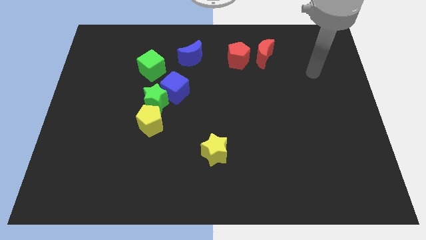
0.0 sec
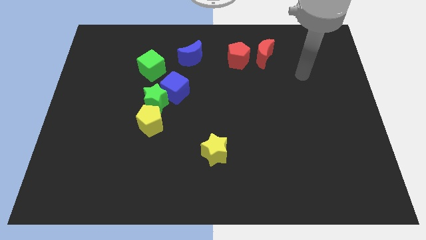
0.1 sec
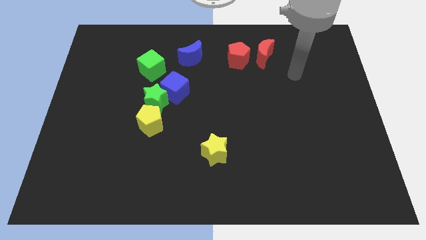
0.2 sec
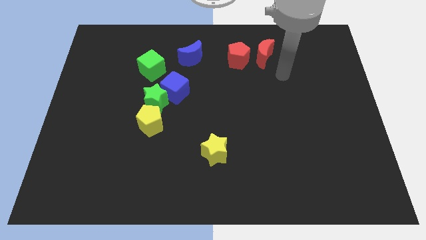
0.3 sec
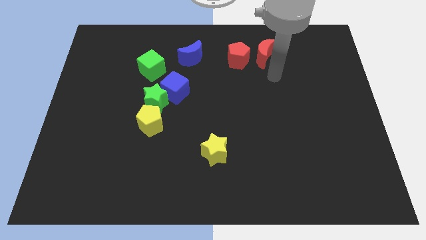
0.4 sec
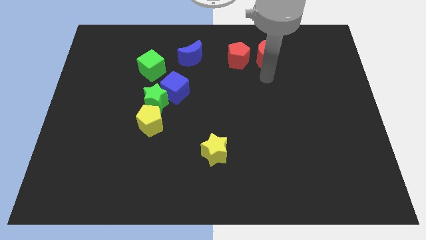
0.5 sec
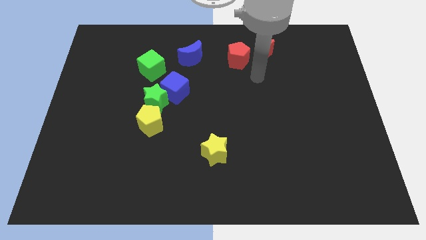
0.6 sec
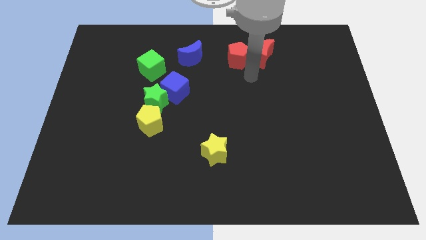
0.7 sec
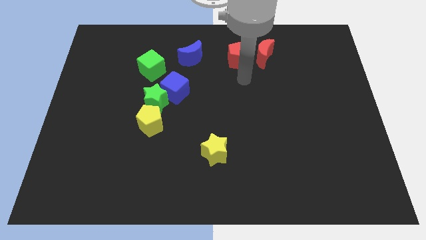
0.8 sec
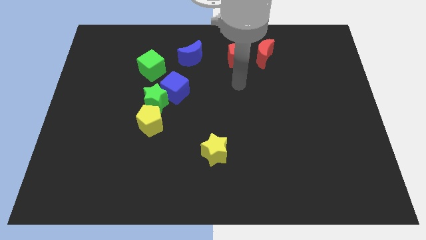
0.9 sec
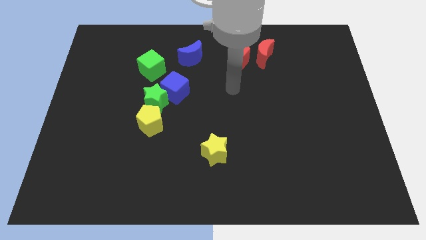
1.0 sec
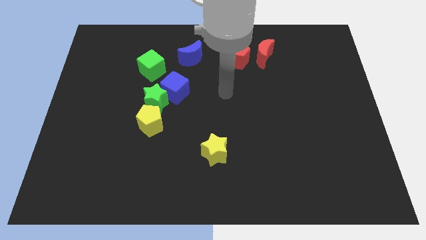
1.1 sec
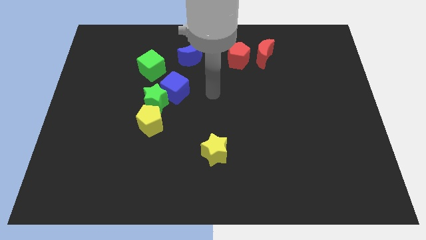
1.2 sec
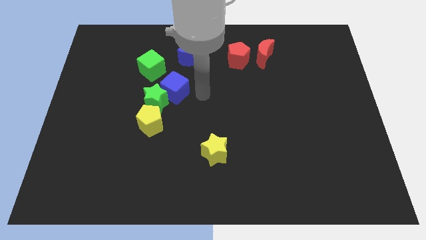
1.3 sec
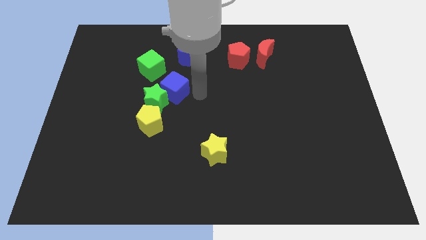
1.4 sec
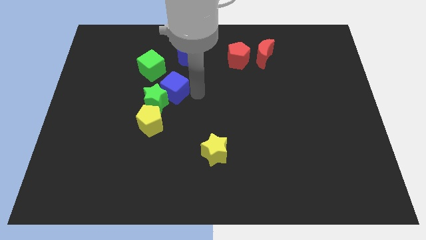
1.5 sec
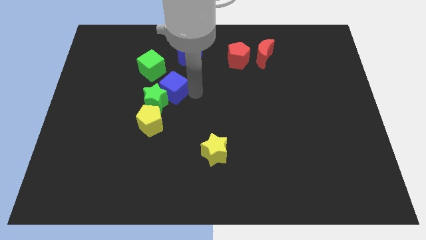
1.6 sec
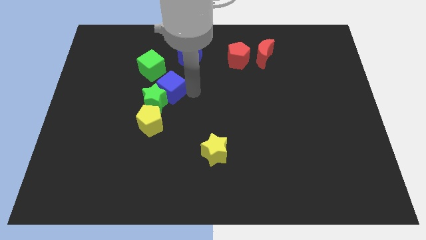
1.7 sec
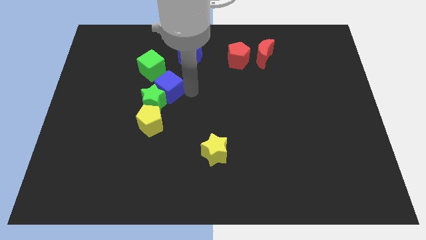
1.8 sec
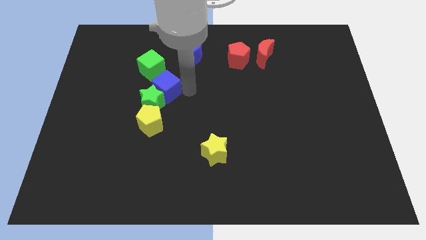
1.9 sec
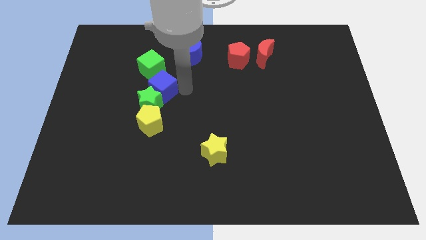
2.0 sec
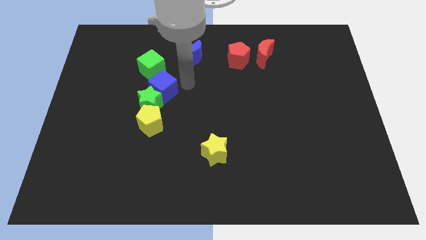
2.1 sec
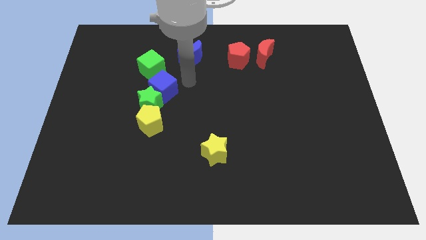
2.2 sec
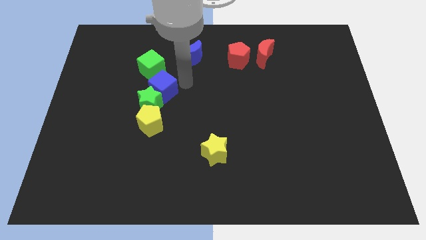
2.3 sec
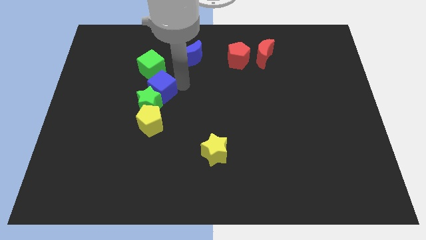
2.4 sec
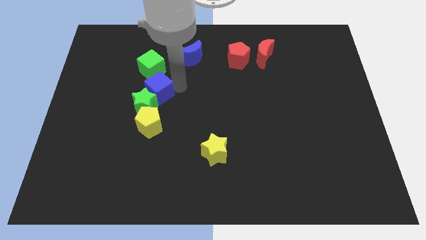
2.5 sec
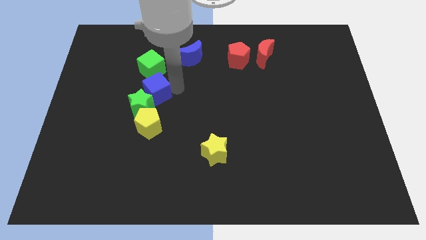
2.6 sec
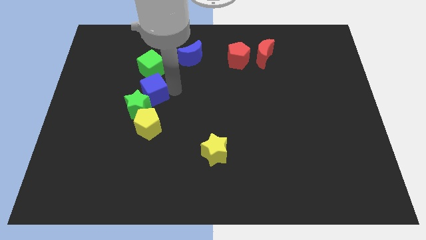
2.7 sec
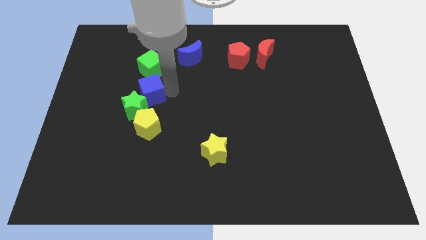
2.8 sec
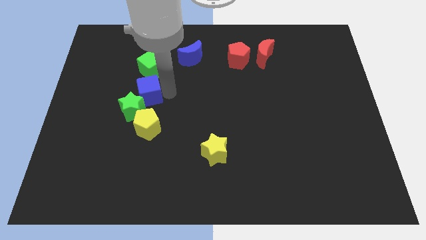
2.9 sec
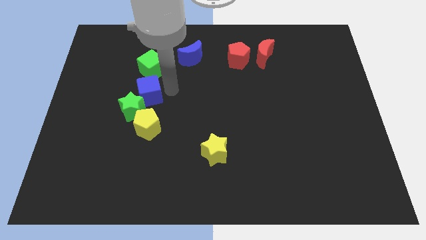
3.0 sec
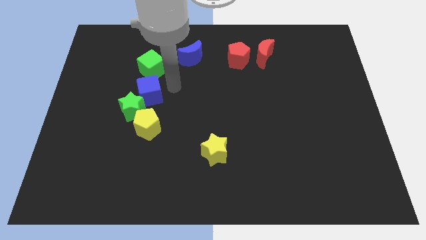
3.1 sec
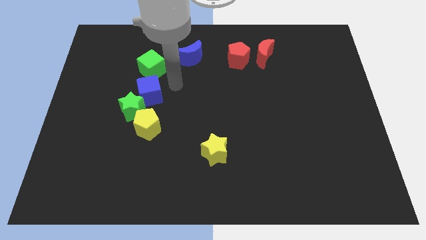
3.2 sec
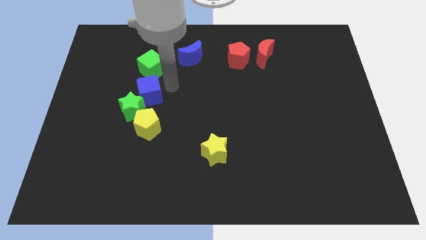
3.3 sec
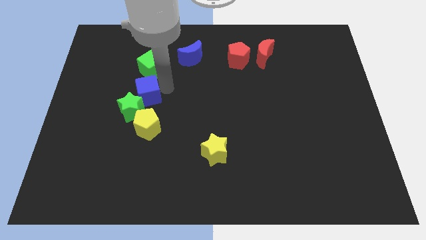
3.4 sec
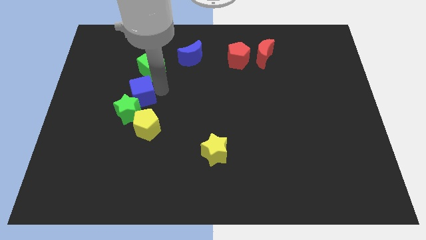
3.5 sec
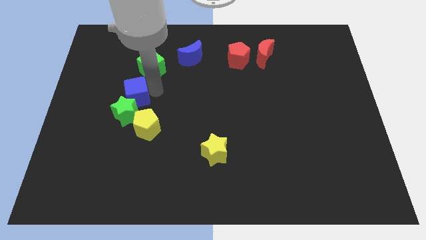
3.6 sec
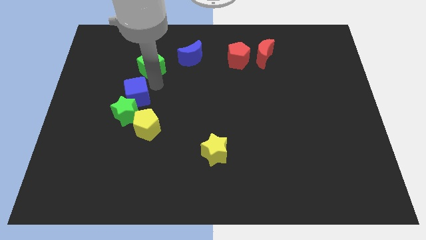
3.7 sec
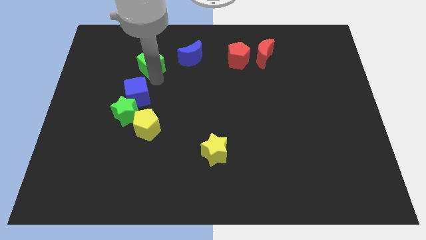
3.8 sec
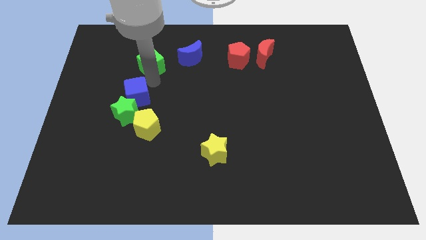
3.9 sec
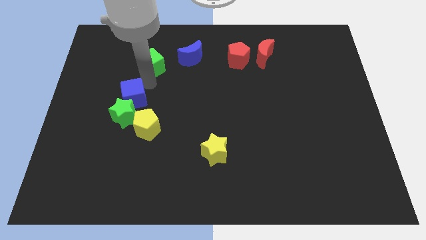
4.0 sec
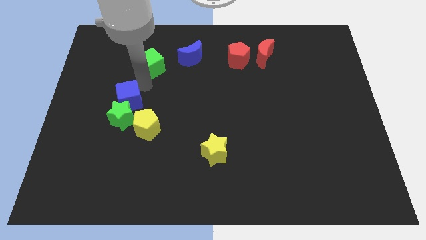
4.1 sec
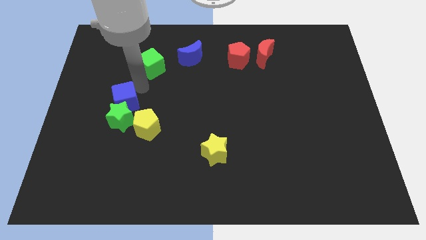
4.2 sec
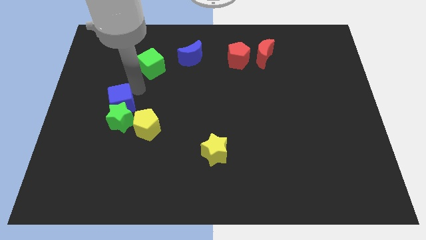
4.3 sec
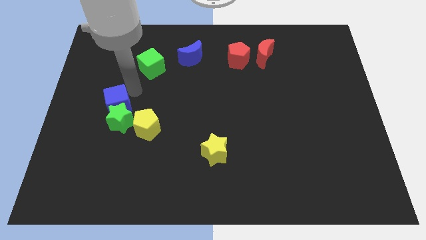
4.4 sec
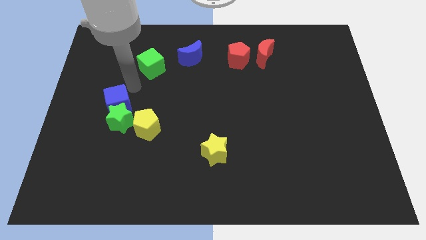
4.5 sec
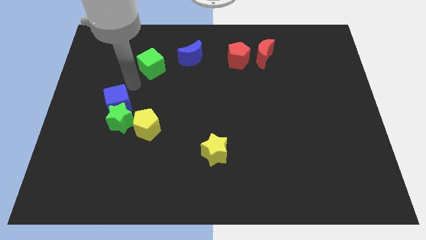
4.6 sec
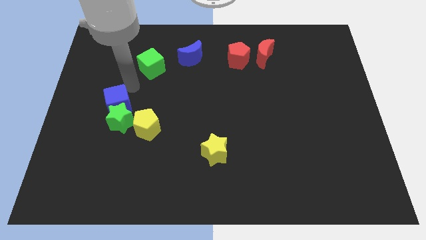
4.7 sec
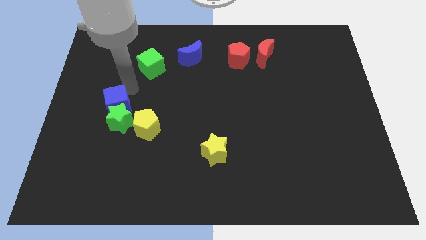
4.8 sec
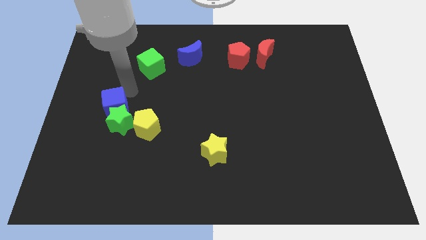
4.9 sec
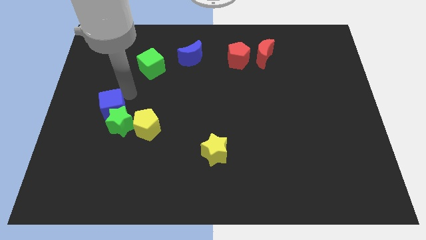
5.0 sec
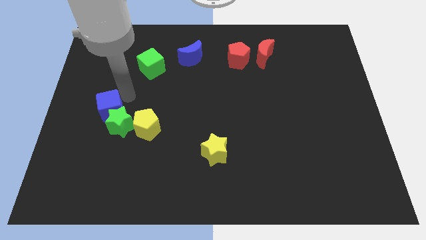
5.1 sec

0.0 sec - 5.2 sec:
slide the blue cube left of the yellow pentagon

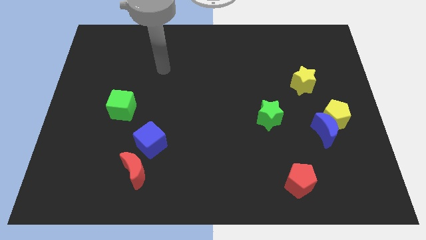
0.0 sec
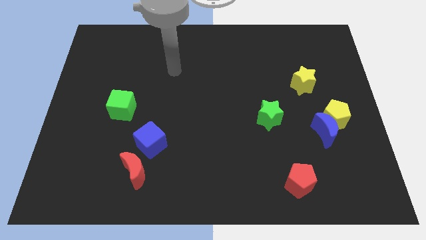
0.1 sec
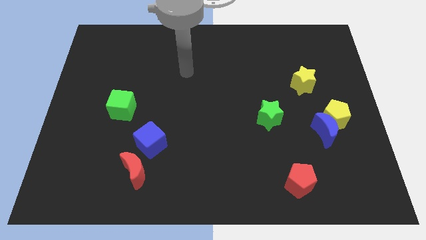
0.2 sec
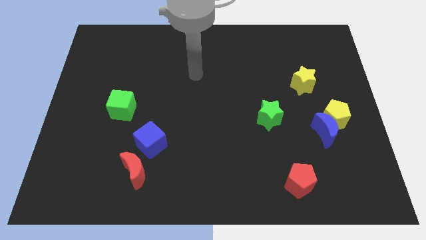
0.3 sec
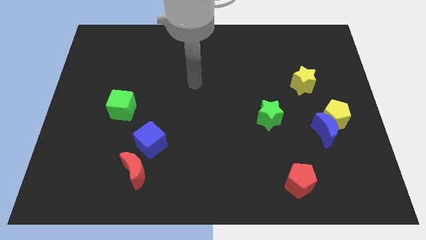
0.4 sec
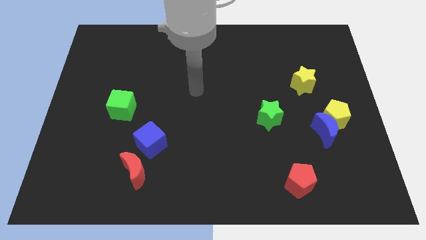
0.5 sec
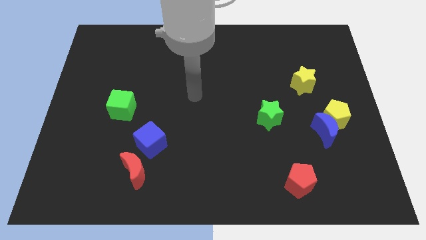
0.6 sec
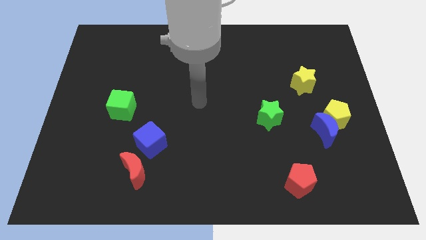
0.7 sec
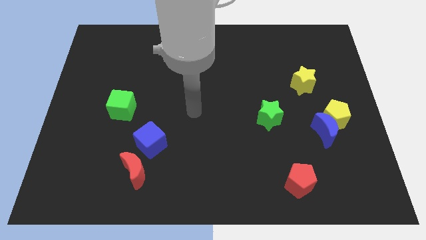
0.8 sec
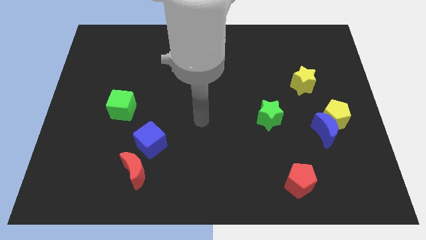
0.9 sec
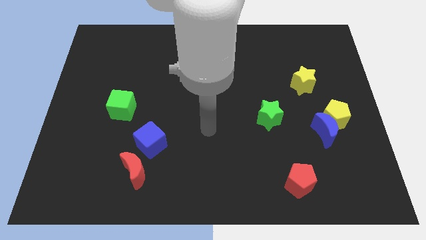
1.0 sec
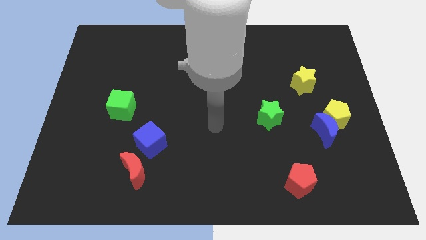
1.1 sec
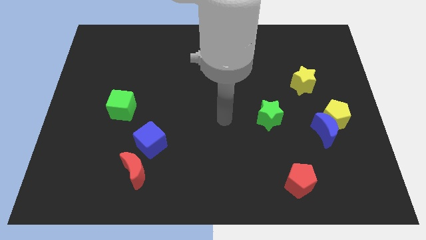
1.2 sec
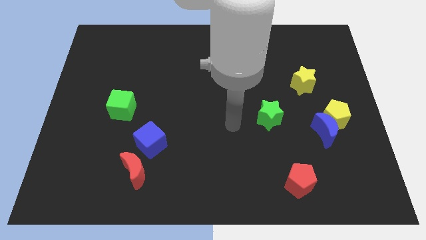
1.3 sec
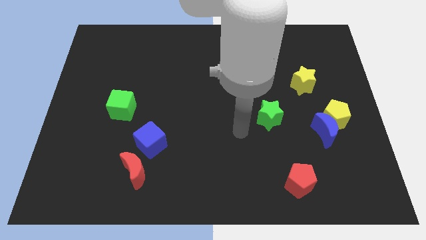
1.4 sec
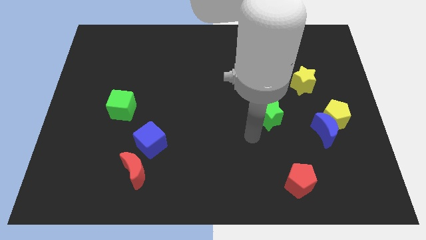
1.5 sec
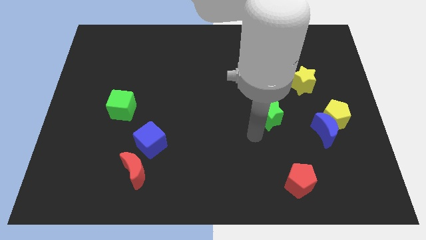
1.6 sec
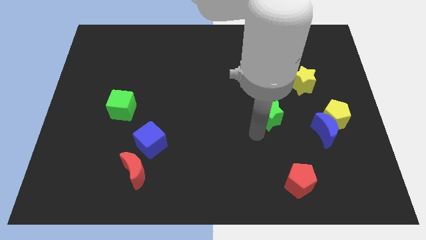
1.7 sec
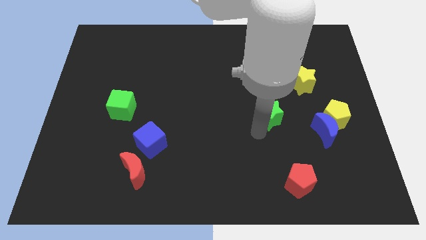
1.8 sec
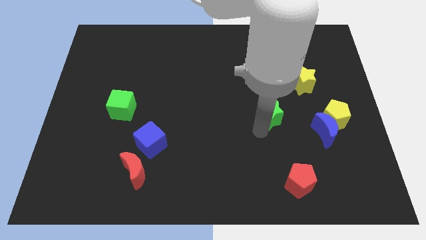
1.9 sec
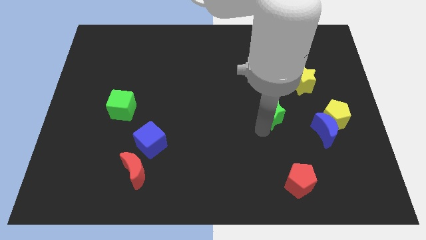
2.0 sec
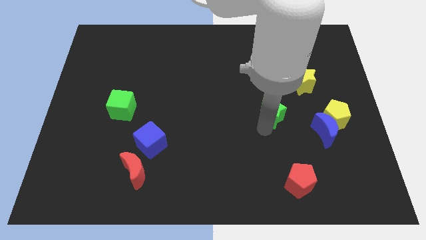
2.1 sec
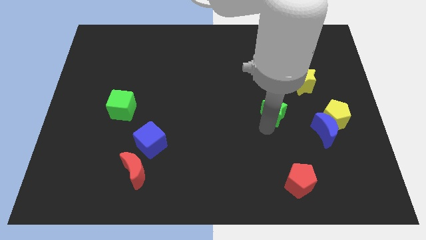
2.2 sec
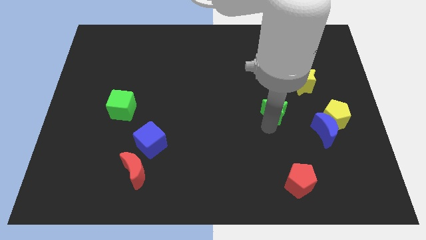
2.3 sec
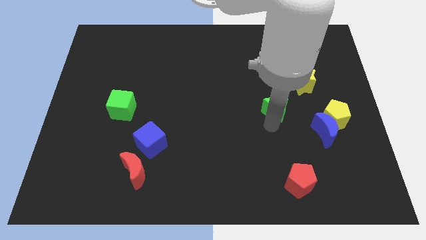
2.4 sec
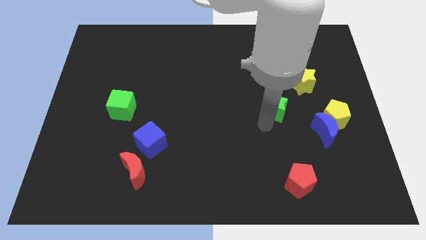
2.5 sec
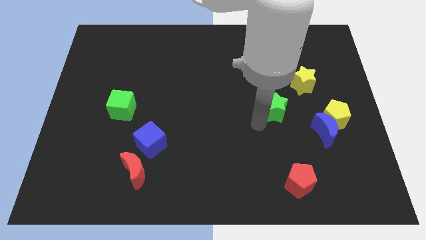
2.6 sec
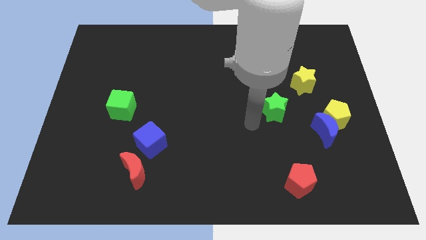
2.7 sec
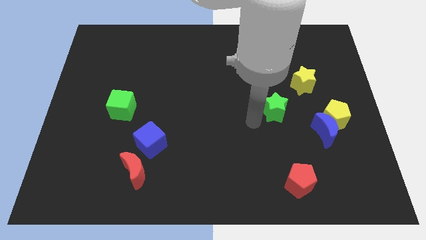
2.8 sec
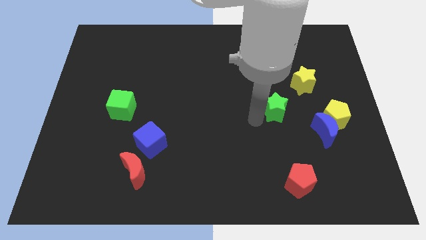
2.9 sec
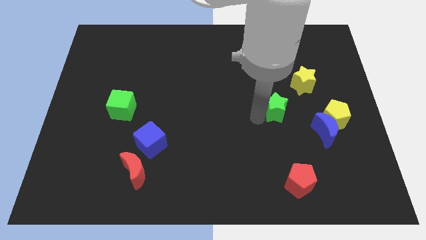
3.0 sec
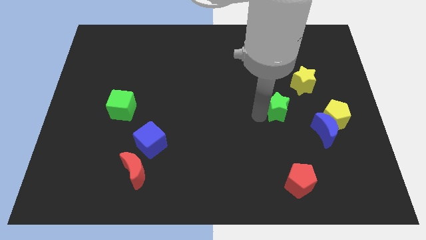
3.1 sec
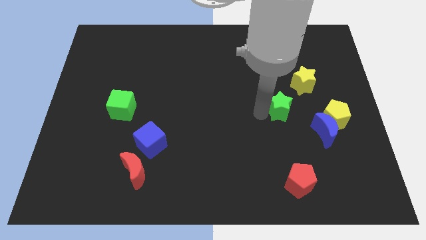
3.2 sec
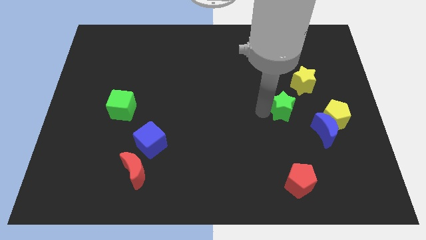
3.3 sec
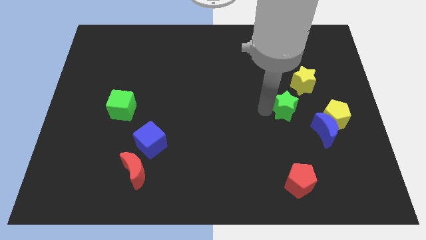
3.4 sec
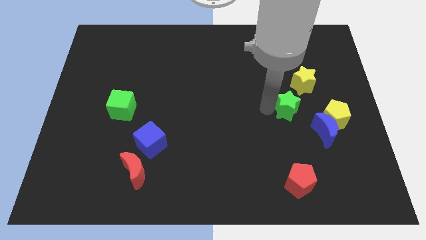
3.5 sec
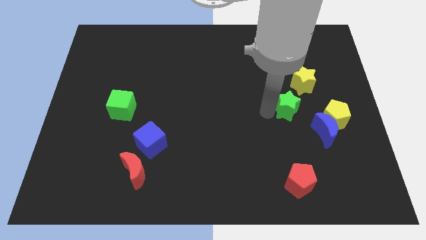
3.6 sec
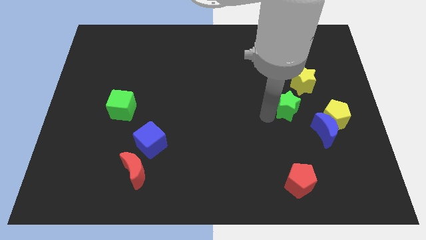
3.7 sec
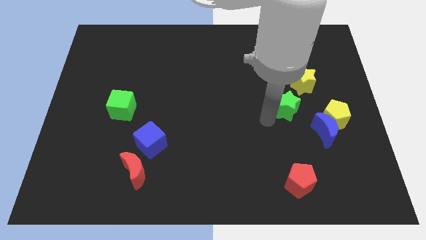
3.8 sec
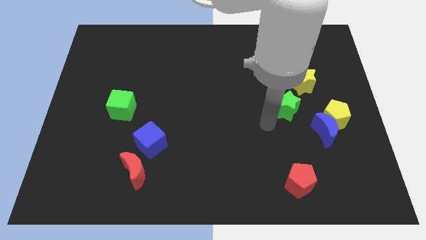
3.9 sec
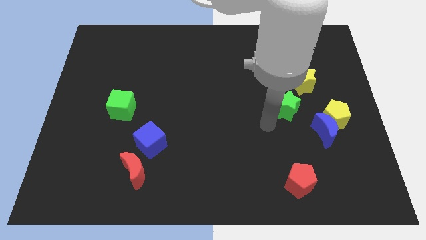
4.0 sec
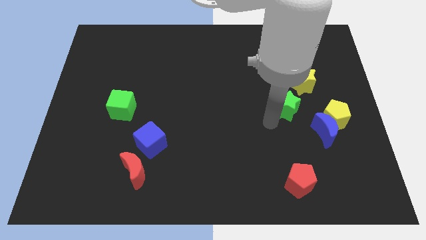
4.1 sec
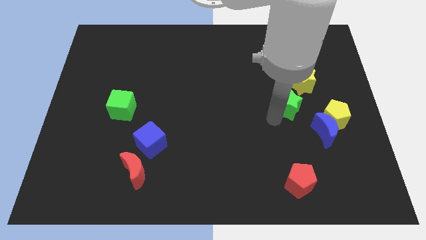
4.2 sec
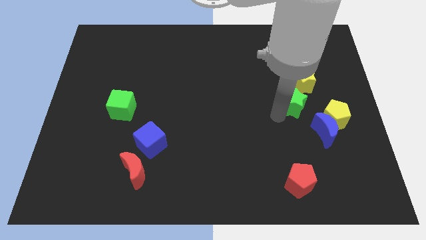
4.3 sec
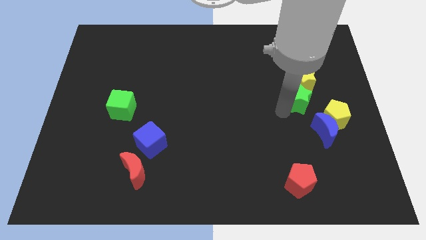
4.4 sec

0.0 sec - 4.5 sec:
put the green star to the top of the blue moon
